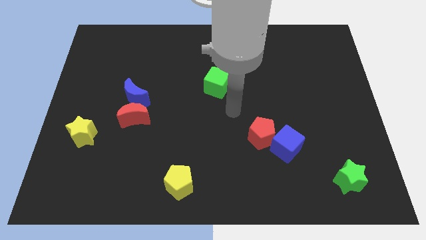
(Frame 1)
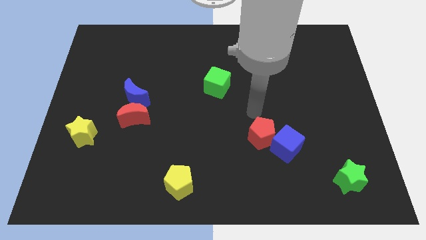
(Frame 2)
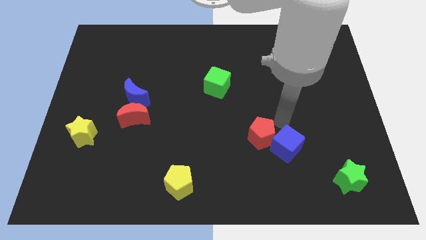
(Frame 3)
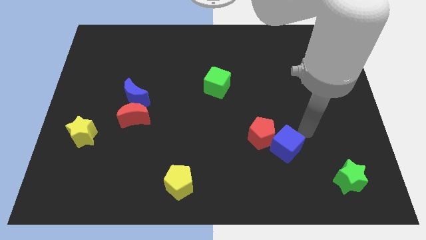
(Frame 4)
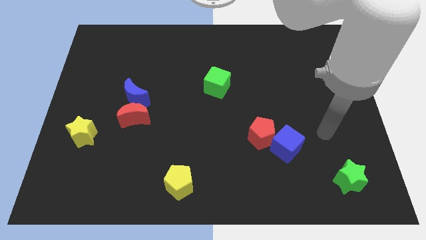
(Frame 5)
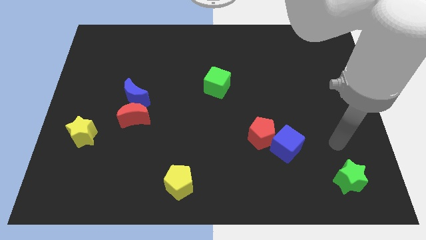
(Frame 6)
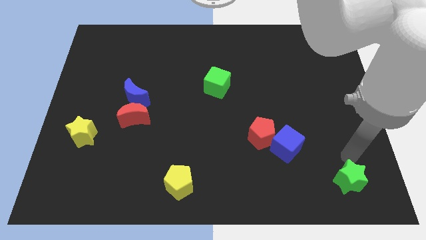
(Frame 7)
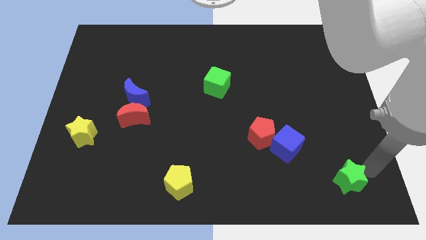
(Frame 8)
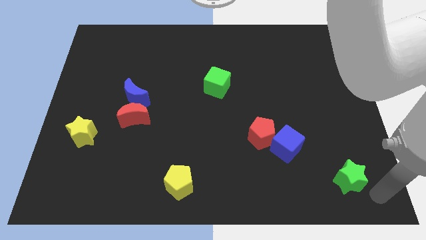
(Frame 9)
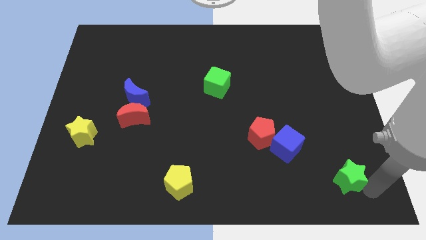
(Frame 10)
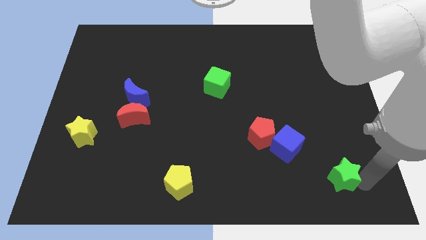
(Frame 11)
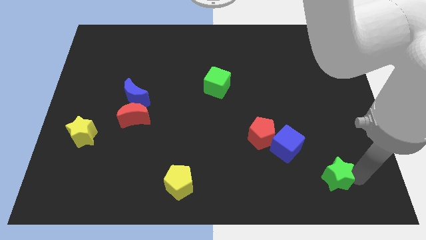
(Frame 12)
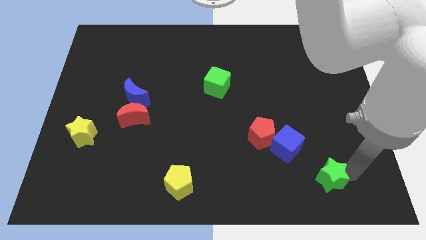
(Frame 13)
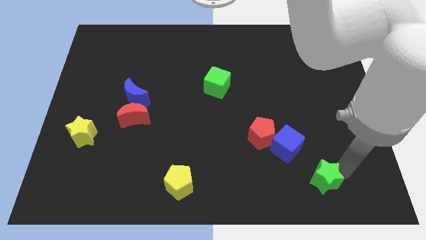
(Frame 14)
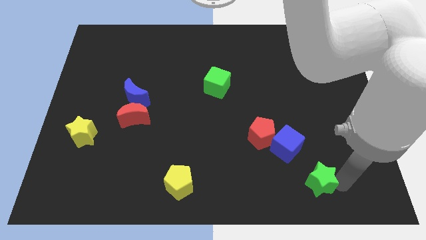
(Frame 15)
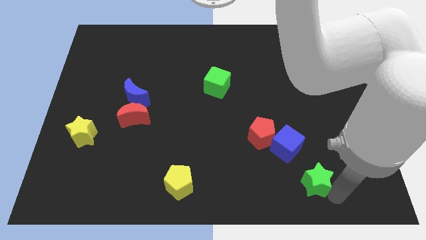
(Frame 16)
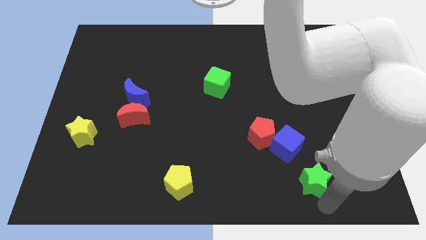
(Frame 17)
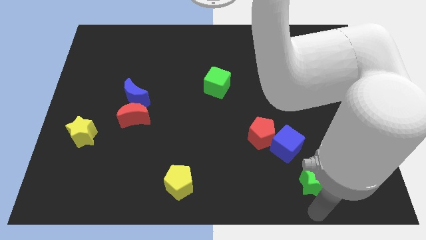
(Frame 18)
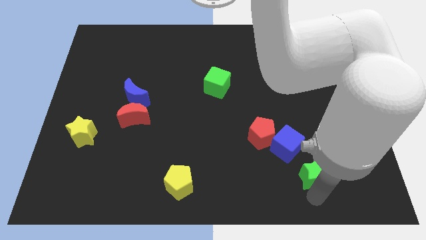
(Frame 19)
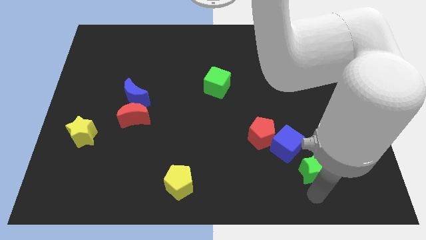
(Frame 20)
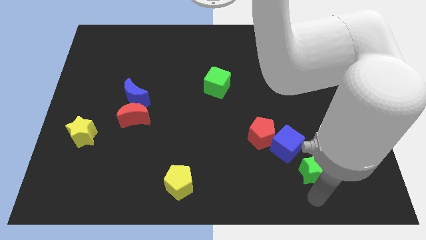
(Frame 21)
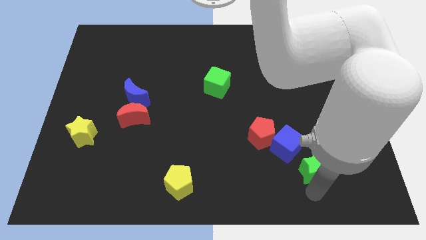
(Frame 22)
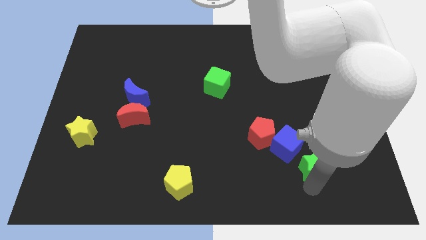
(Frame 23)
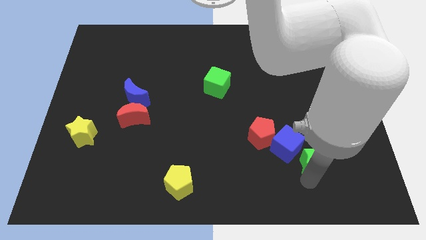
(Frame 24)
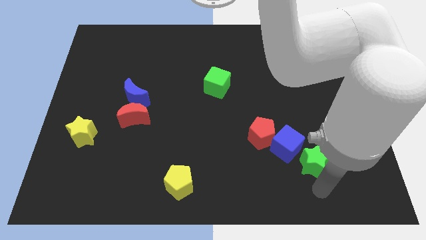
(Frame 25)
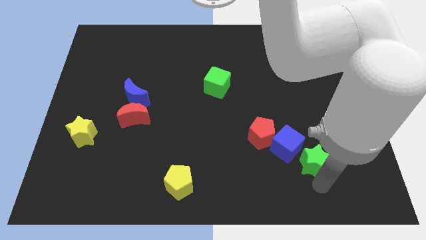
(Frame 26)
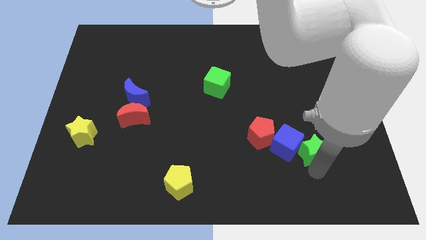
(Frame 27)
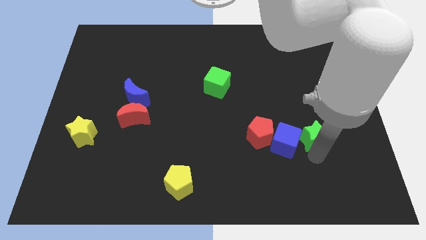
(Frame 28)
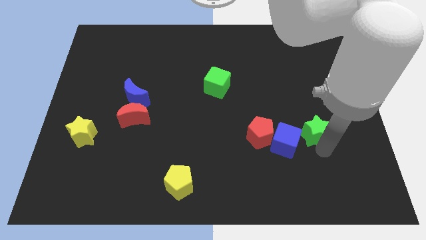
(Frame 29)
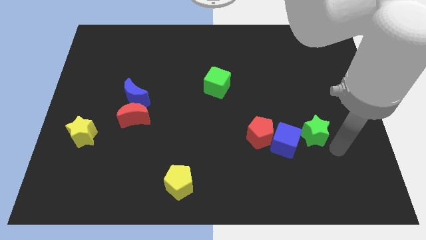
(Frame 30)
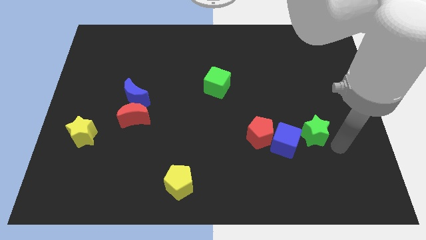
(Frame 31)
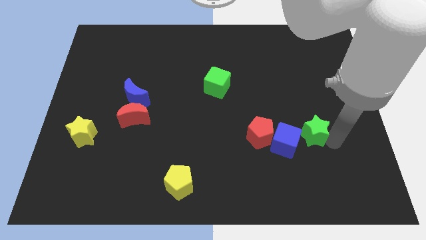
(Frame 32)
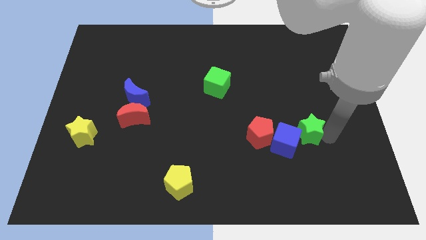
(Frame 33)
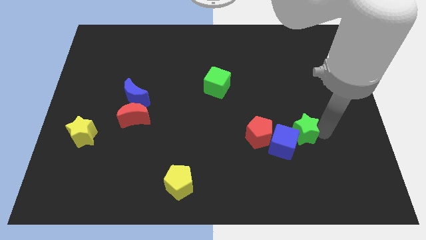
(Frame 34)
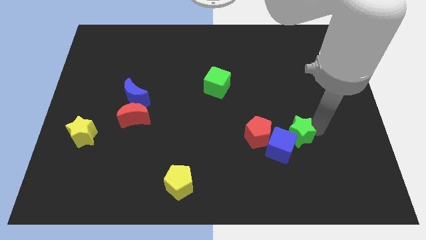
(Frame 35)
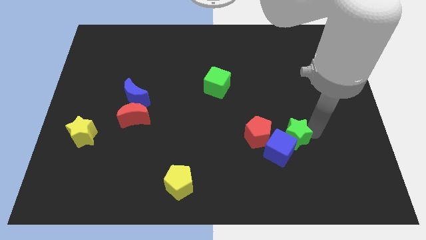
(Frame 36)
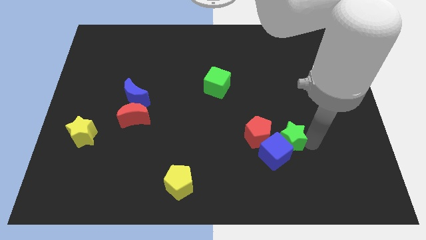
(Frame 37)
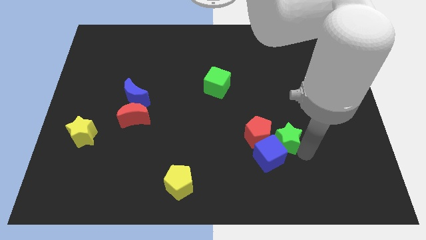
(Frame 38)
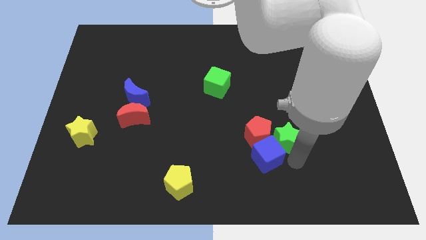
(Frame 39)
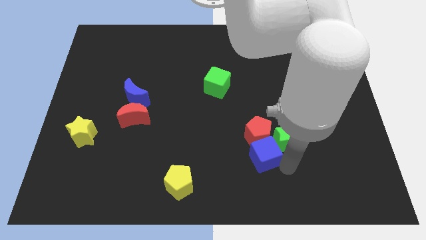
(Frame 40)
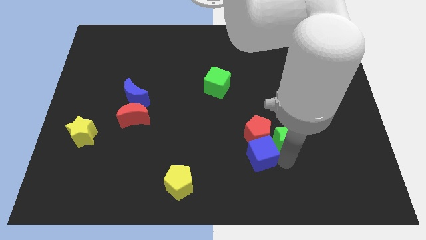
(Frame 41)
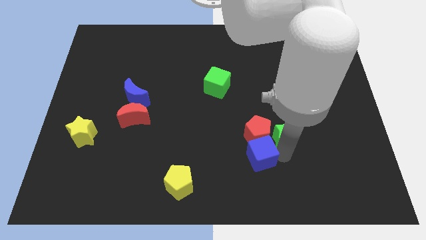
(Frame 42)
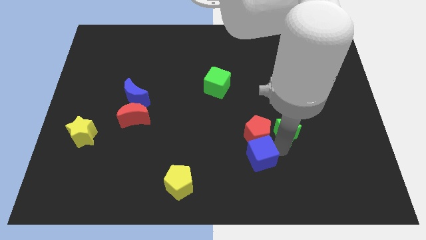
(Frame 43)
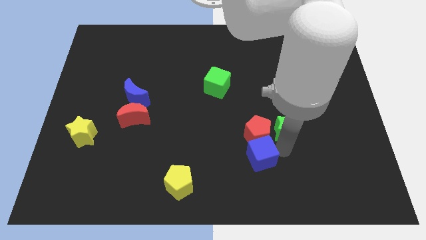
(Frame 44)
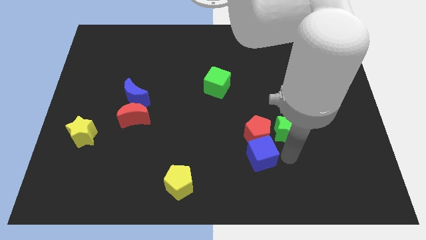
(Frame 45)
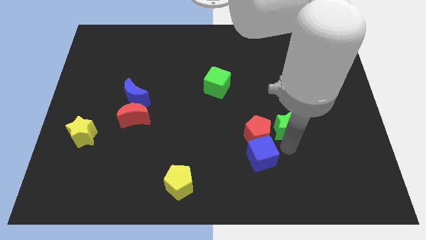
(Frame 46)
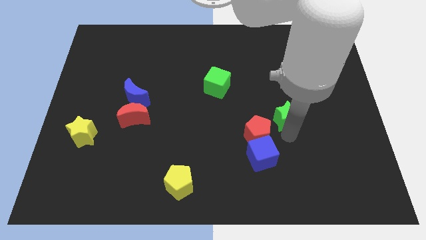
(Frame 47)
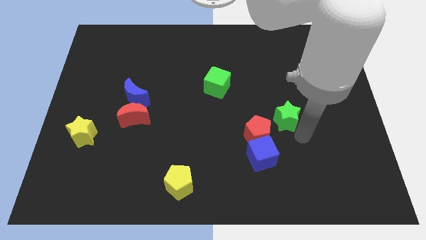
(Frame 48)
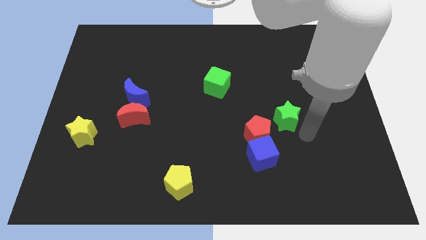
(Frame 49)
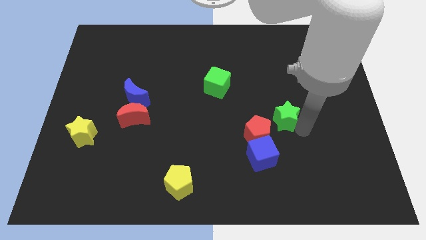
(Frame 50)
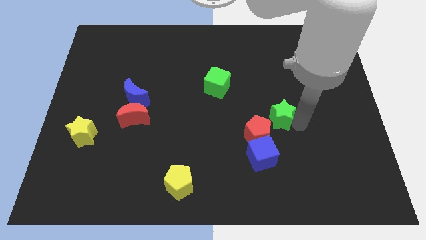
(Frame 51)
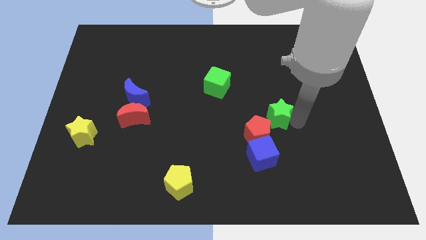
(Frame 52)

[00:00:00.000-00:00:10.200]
push the green star upwards and left

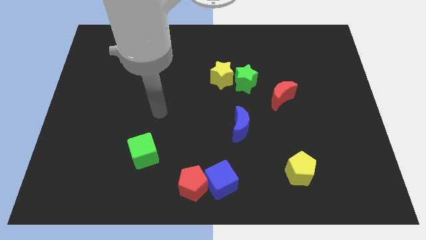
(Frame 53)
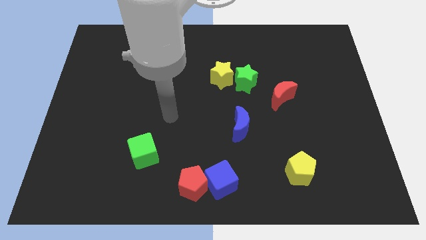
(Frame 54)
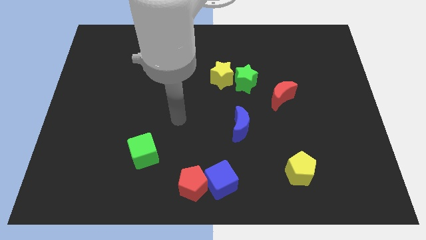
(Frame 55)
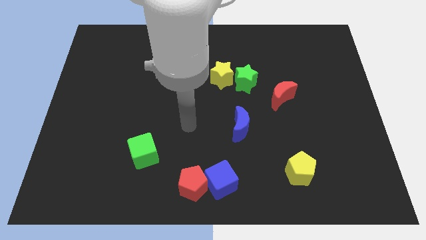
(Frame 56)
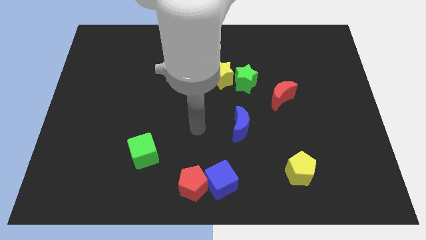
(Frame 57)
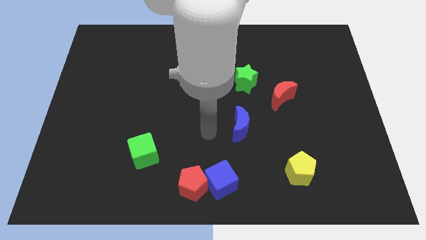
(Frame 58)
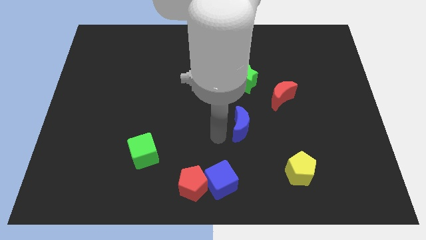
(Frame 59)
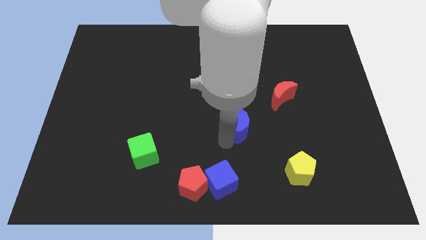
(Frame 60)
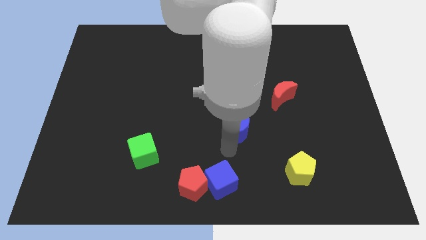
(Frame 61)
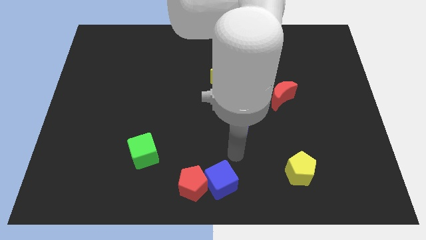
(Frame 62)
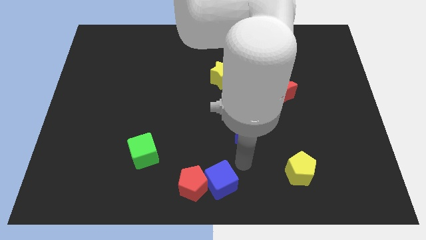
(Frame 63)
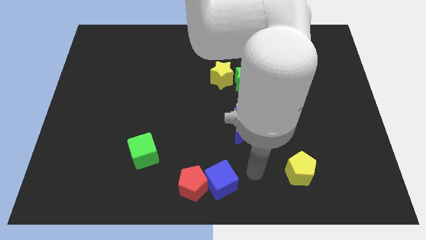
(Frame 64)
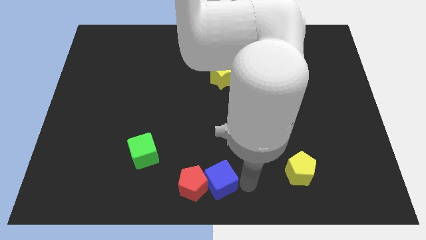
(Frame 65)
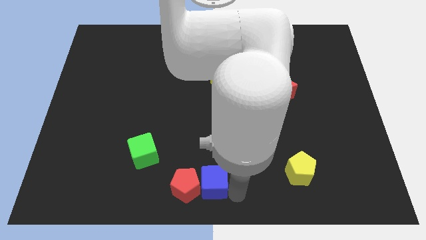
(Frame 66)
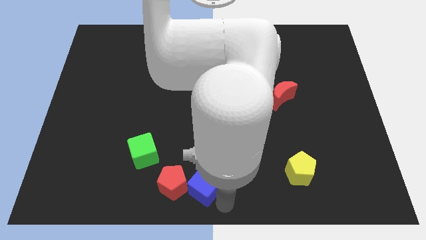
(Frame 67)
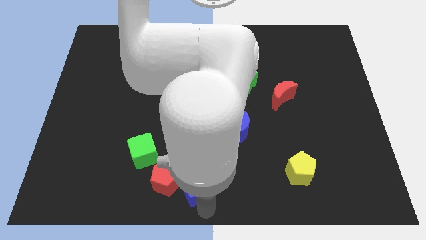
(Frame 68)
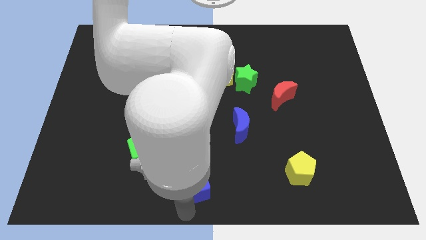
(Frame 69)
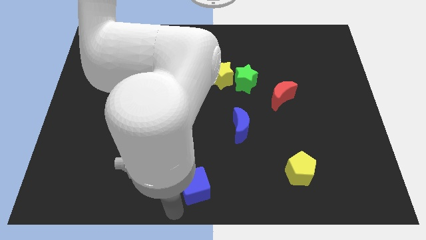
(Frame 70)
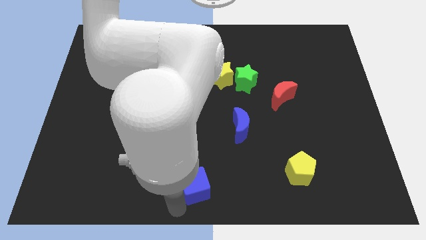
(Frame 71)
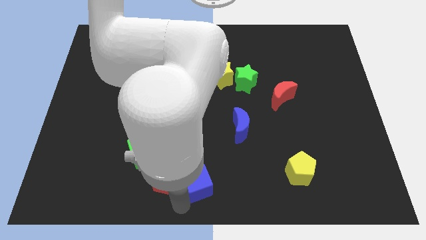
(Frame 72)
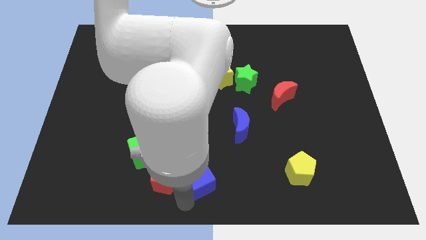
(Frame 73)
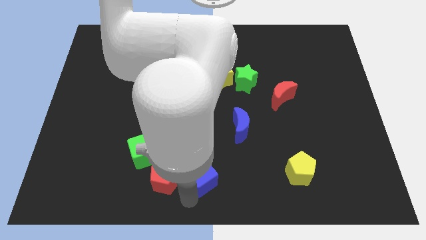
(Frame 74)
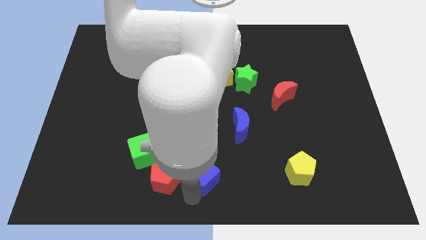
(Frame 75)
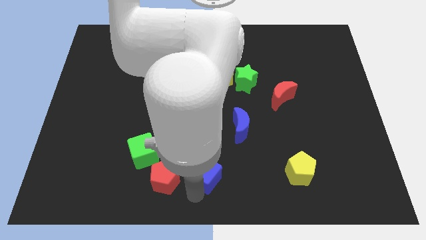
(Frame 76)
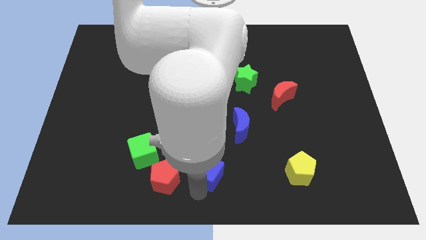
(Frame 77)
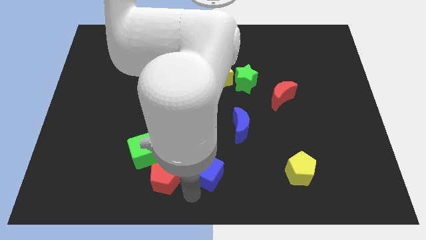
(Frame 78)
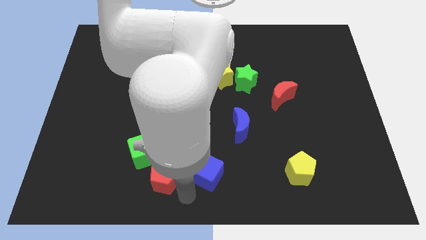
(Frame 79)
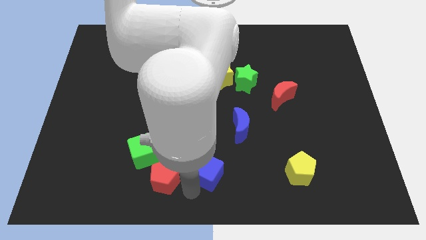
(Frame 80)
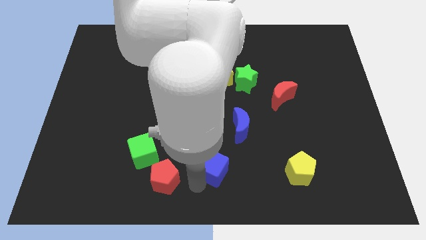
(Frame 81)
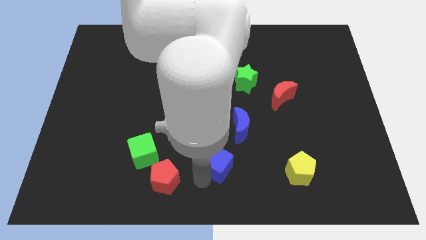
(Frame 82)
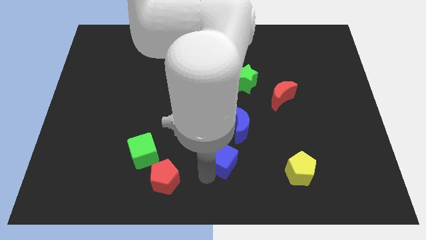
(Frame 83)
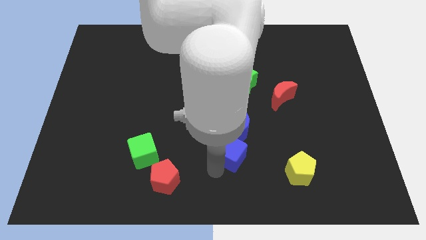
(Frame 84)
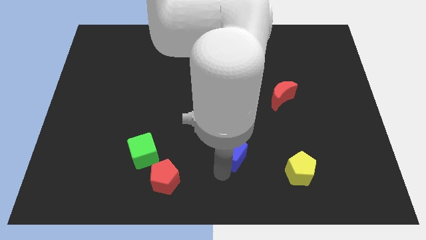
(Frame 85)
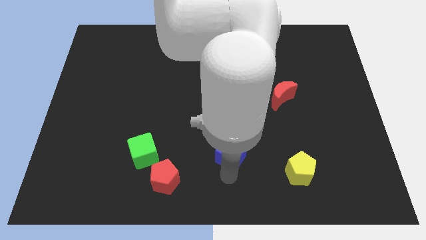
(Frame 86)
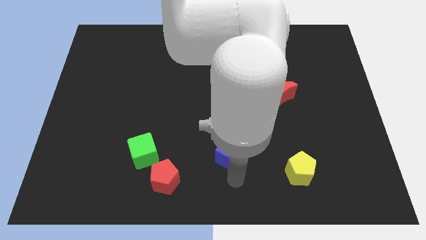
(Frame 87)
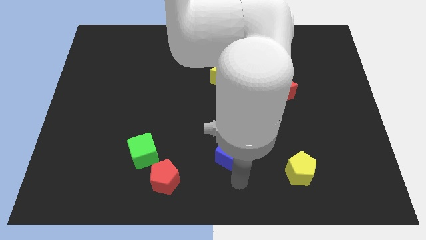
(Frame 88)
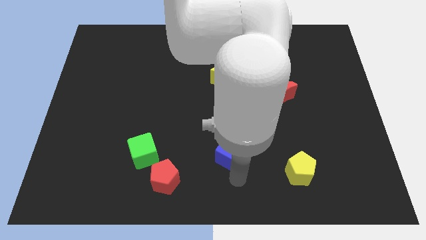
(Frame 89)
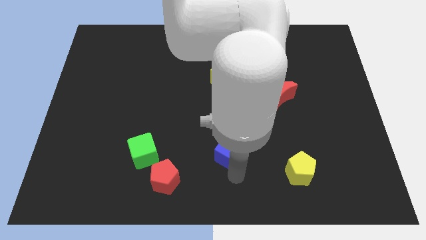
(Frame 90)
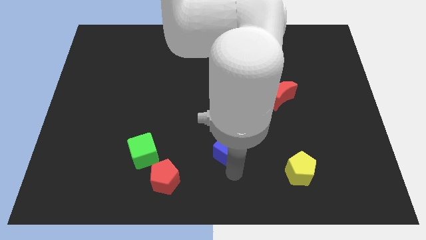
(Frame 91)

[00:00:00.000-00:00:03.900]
push the blue cube a bit up
